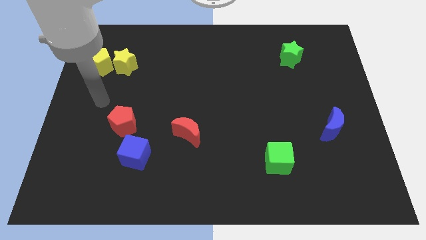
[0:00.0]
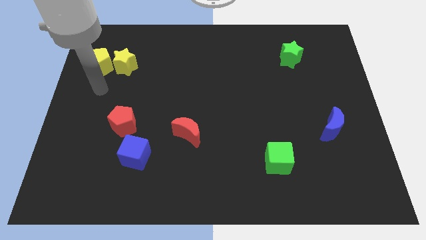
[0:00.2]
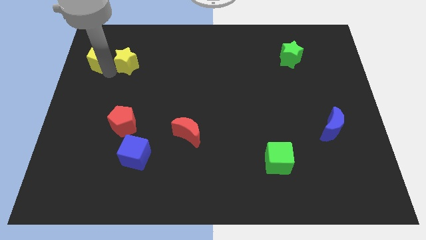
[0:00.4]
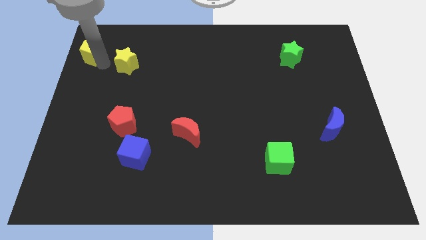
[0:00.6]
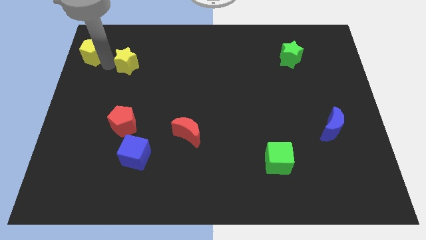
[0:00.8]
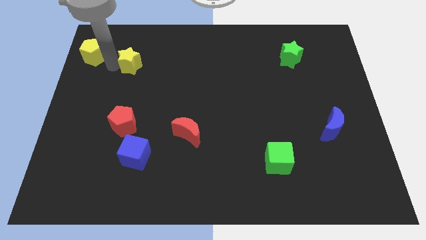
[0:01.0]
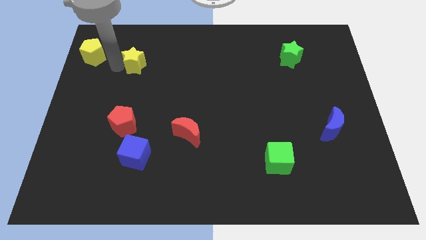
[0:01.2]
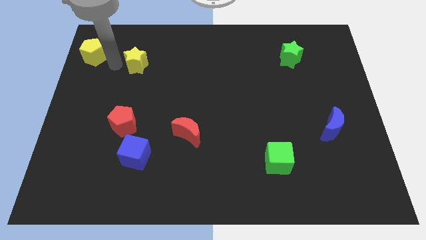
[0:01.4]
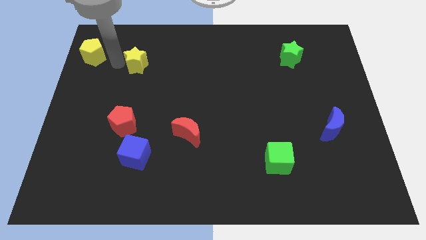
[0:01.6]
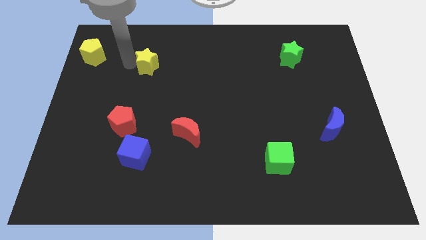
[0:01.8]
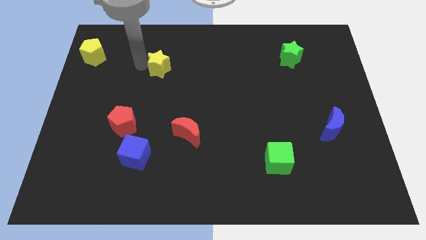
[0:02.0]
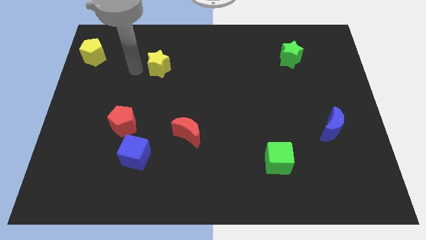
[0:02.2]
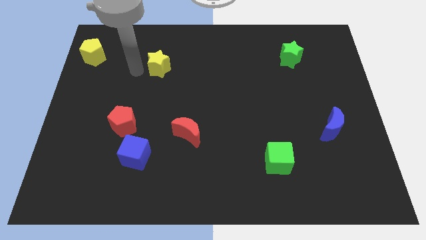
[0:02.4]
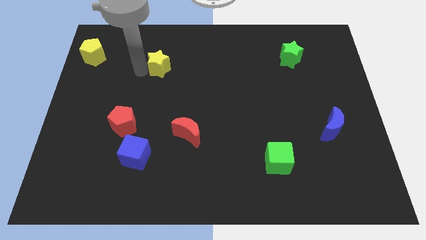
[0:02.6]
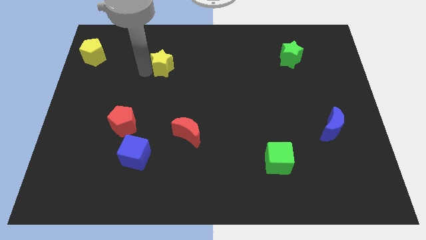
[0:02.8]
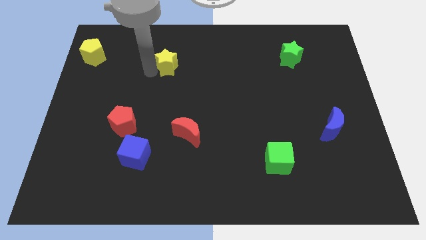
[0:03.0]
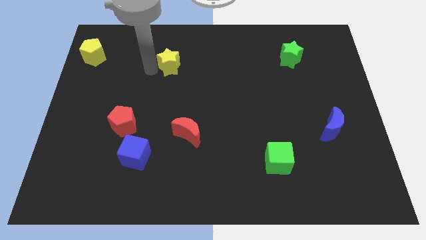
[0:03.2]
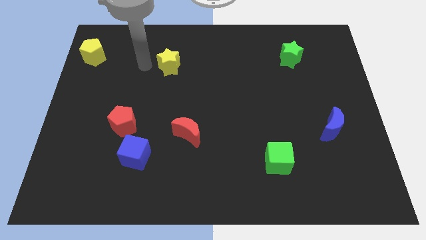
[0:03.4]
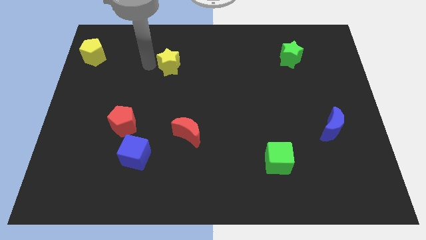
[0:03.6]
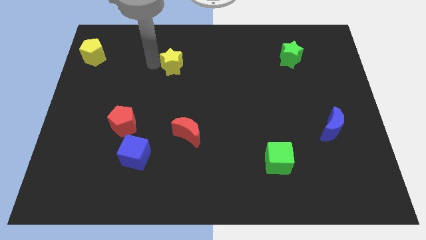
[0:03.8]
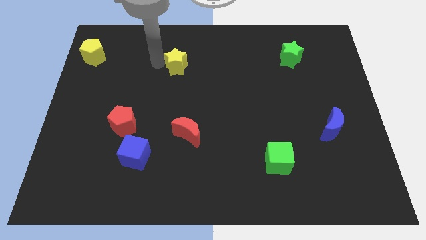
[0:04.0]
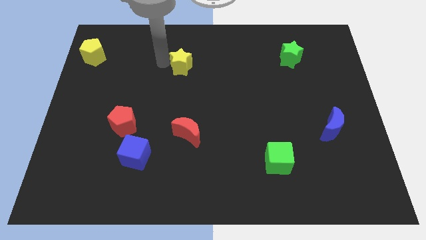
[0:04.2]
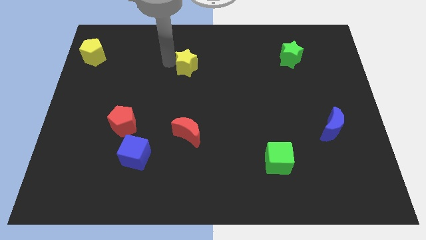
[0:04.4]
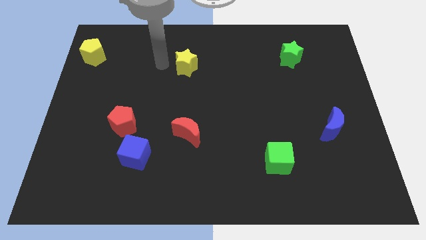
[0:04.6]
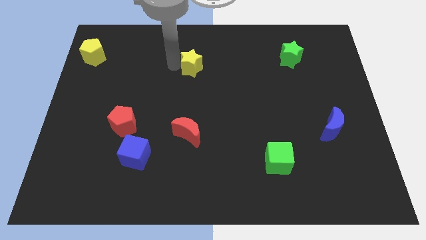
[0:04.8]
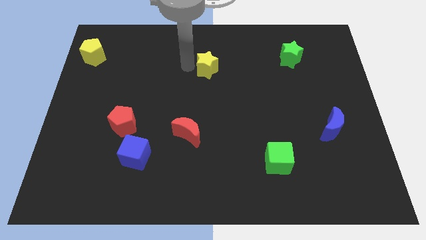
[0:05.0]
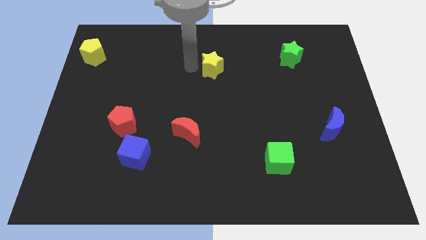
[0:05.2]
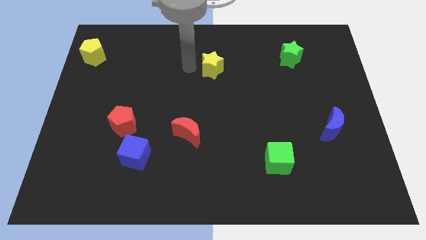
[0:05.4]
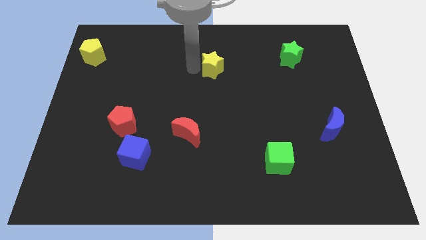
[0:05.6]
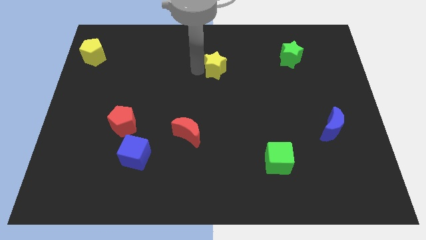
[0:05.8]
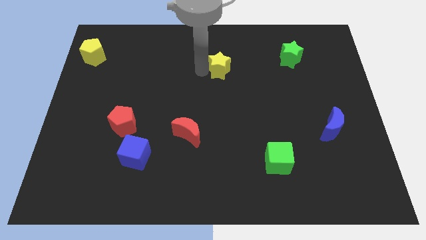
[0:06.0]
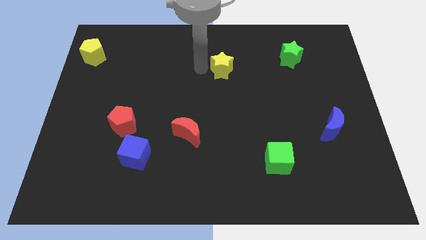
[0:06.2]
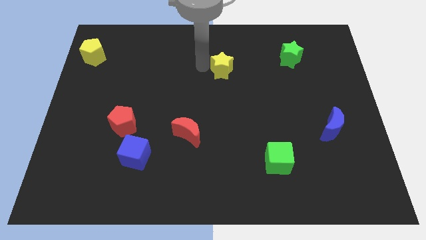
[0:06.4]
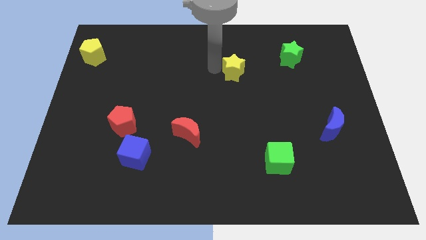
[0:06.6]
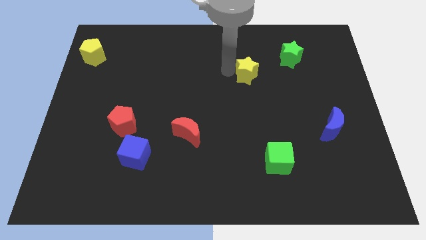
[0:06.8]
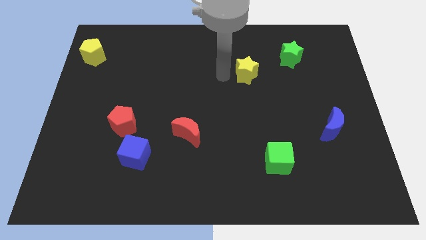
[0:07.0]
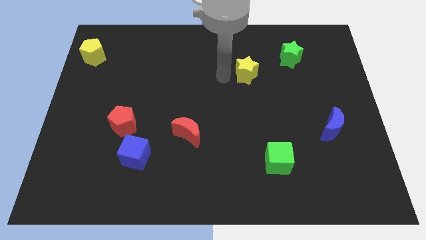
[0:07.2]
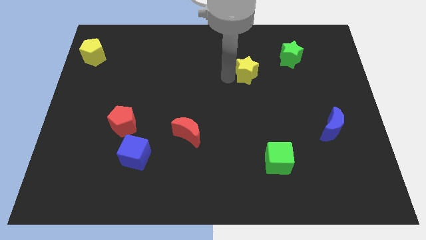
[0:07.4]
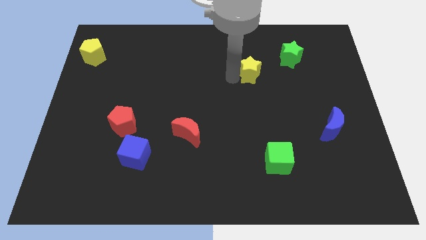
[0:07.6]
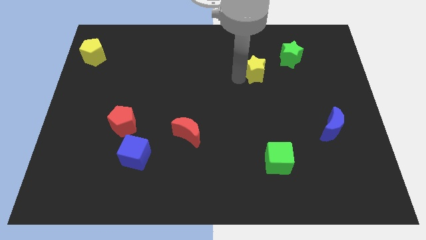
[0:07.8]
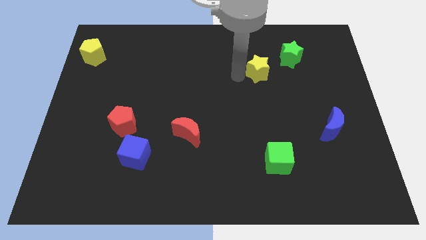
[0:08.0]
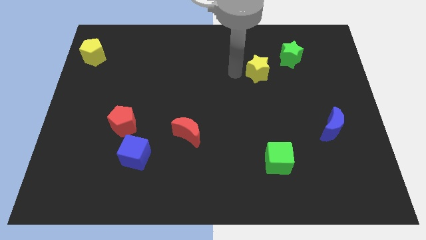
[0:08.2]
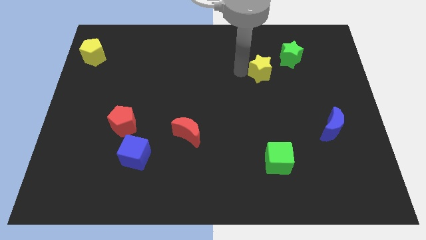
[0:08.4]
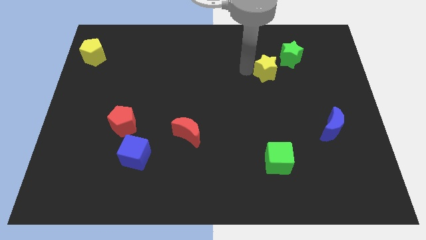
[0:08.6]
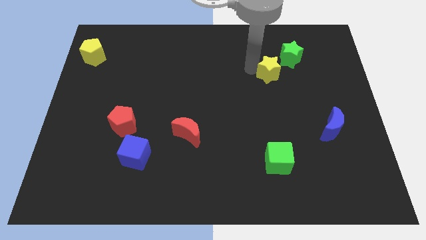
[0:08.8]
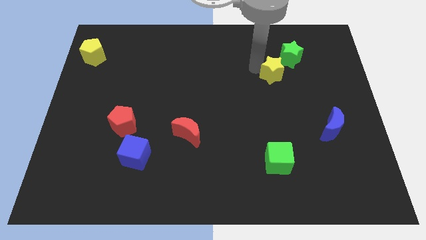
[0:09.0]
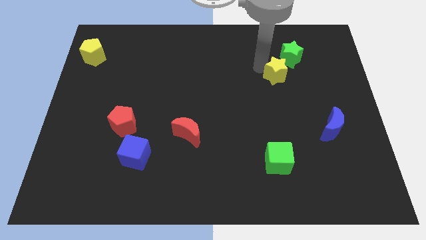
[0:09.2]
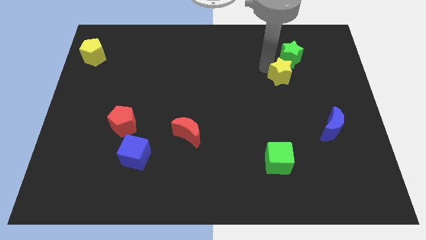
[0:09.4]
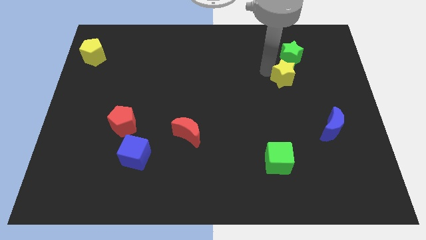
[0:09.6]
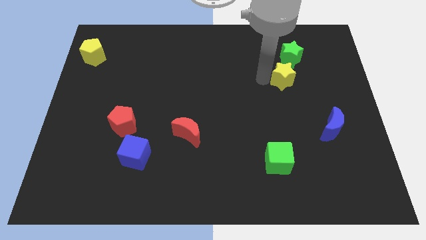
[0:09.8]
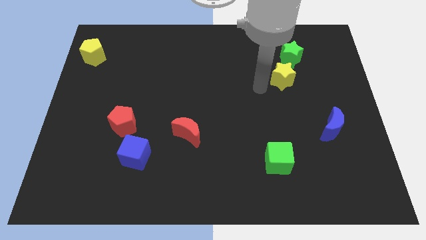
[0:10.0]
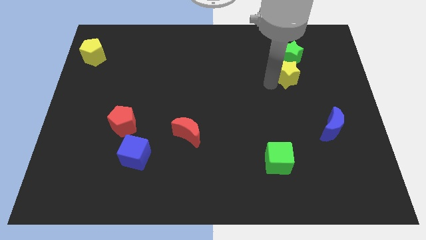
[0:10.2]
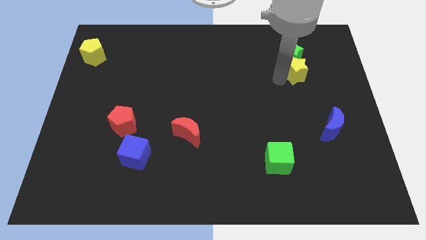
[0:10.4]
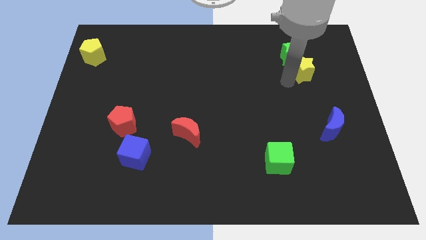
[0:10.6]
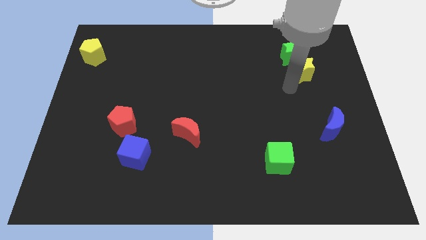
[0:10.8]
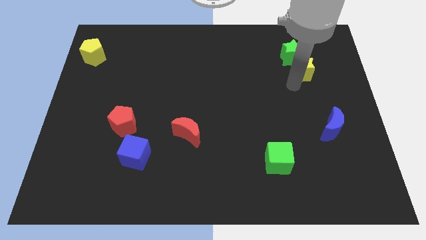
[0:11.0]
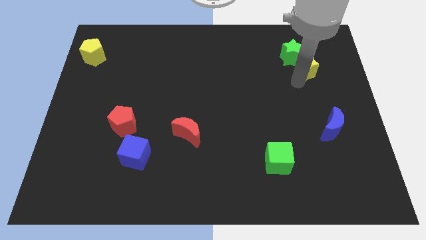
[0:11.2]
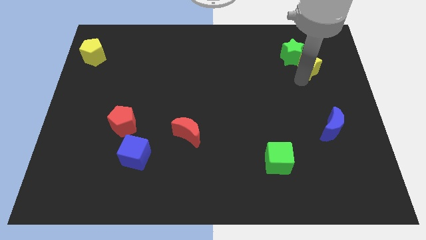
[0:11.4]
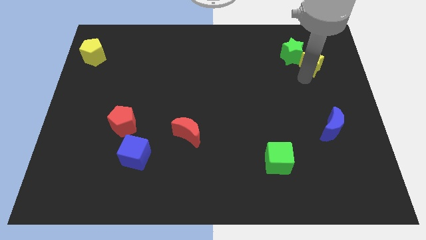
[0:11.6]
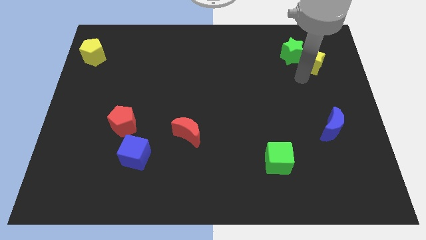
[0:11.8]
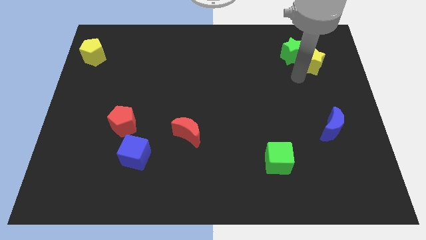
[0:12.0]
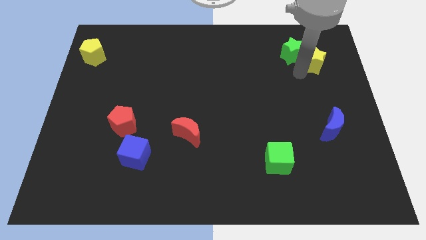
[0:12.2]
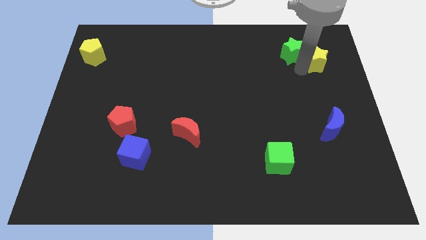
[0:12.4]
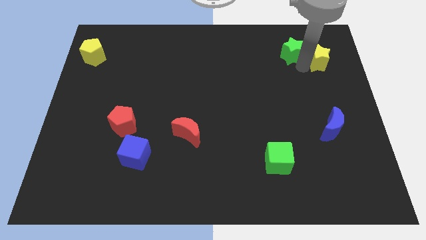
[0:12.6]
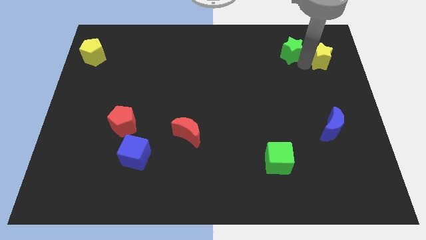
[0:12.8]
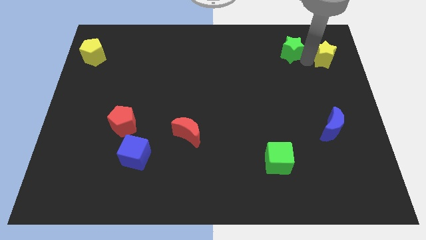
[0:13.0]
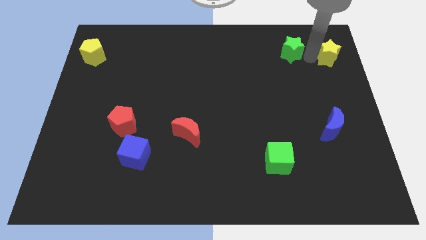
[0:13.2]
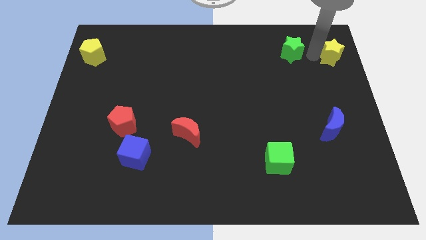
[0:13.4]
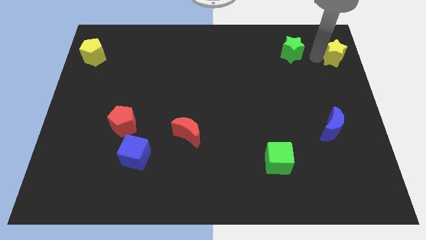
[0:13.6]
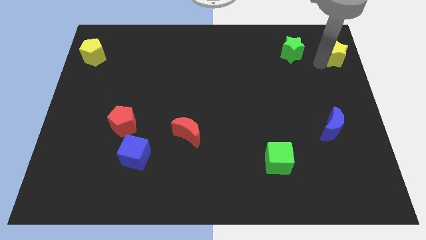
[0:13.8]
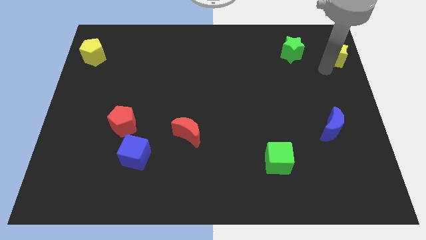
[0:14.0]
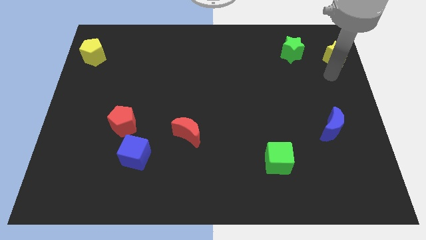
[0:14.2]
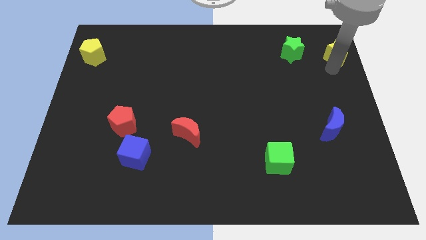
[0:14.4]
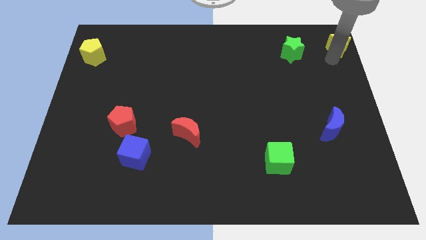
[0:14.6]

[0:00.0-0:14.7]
put the yellow star to the upper right corner
